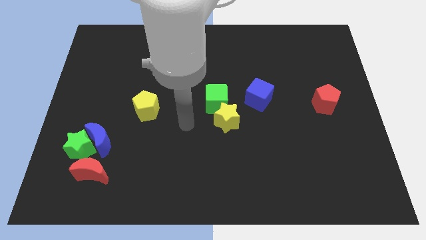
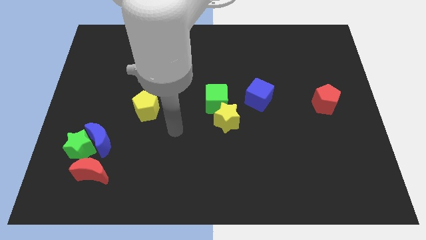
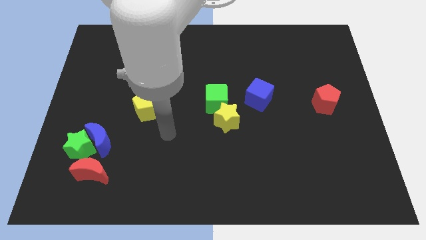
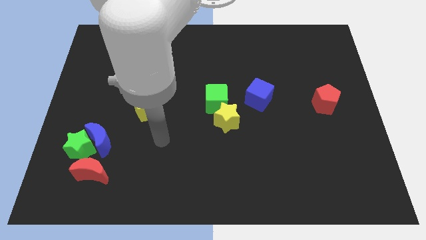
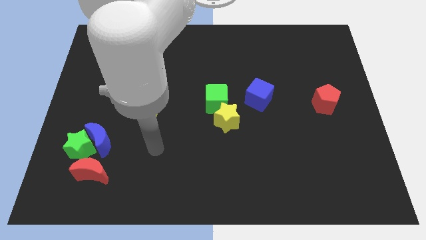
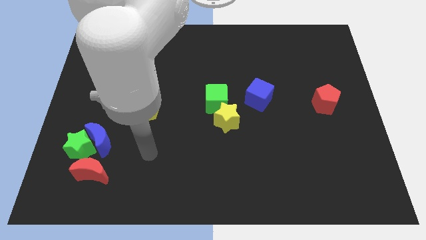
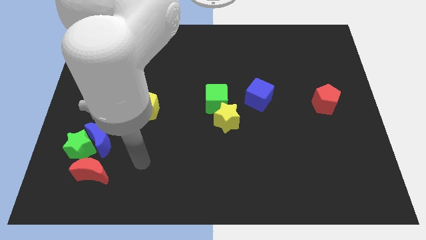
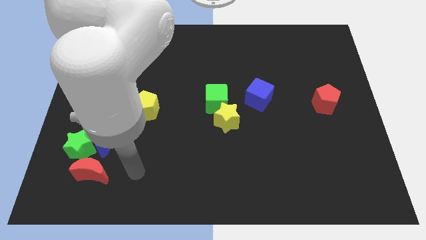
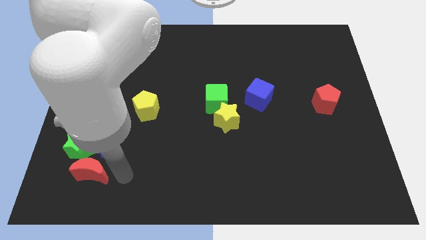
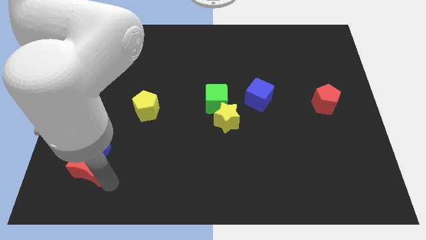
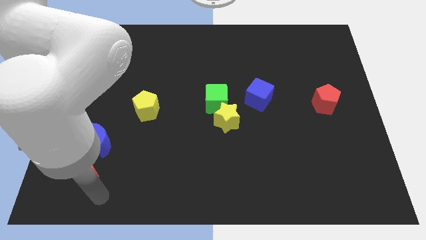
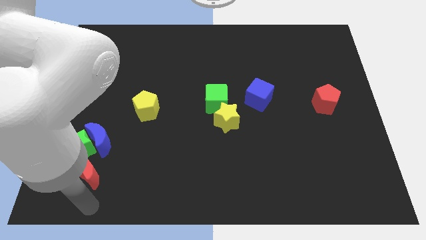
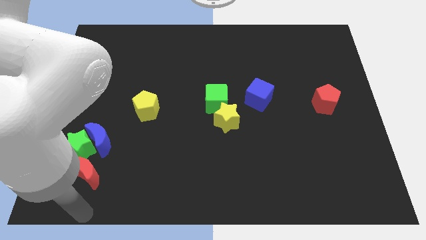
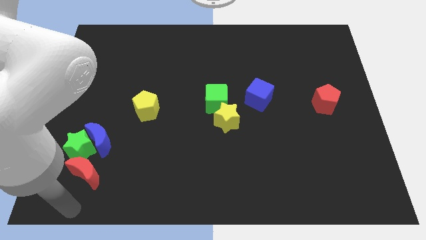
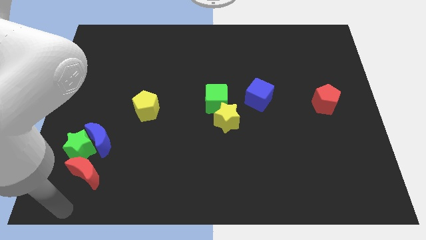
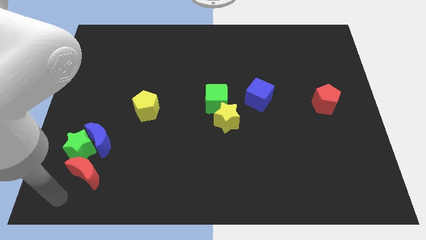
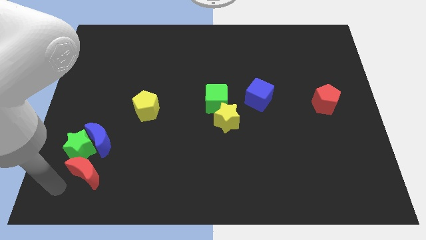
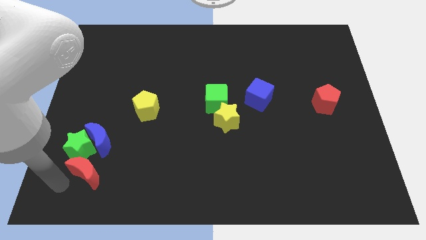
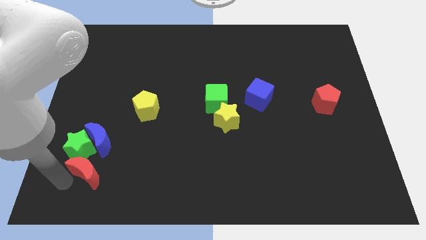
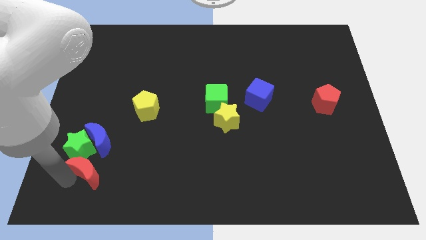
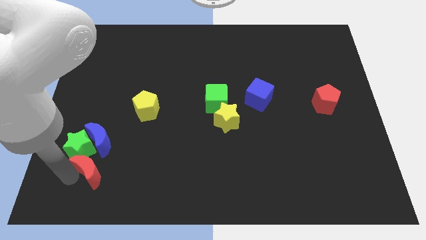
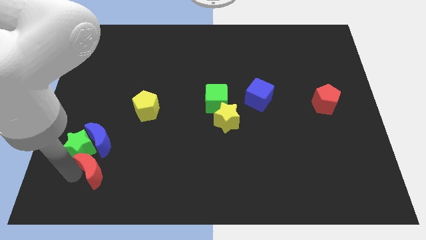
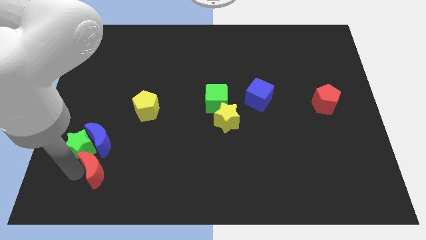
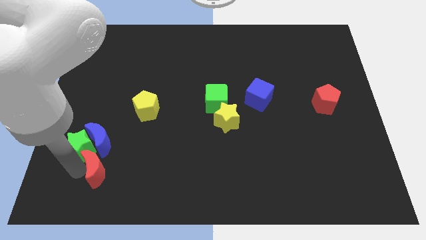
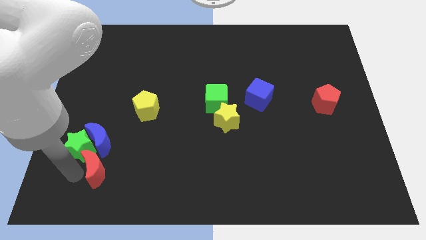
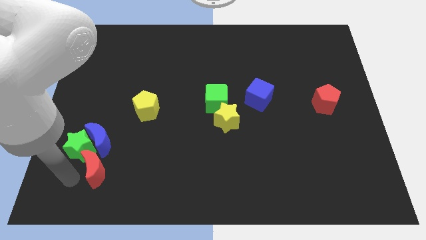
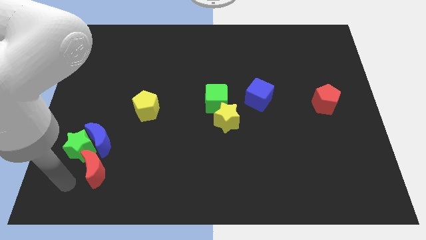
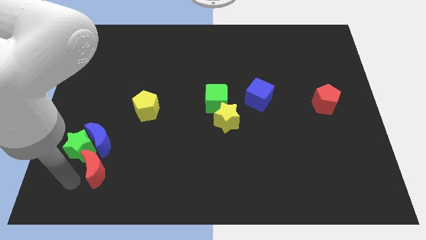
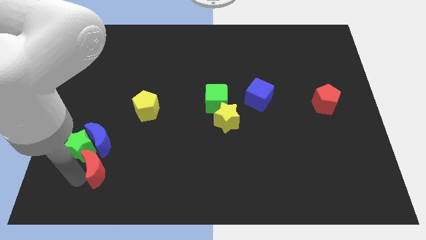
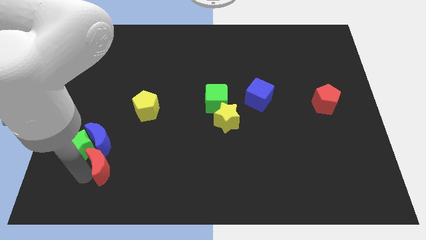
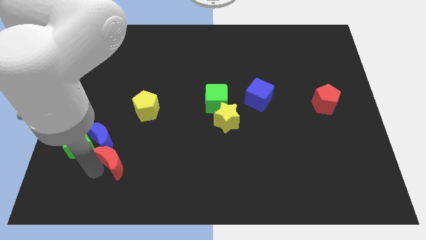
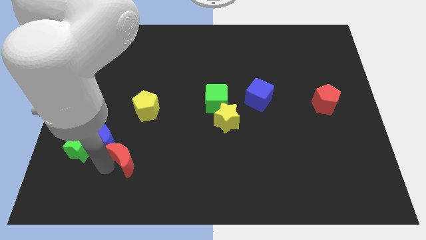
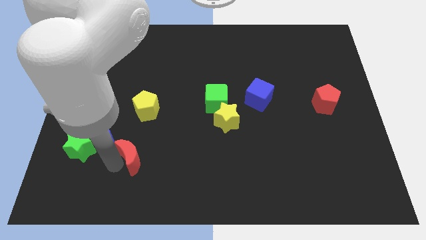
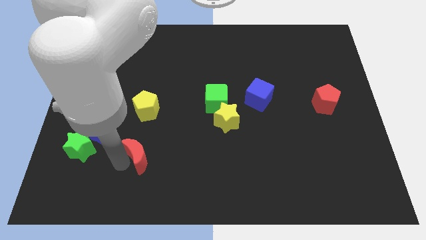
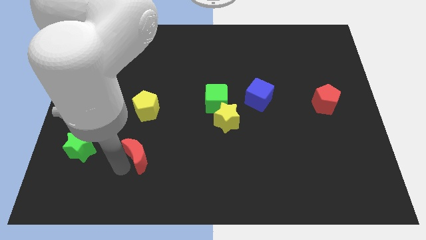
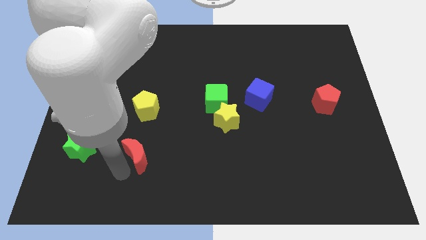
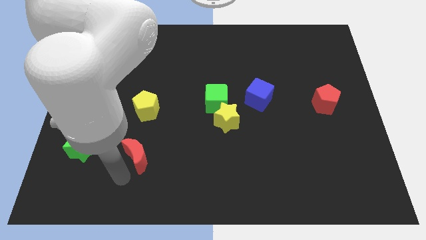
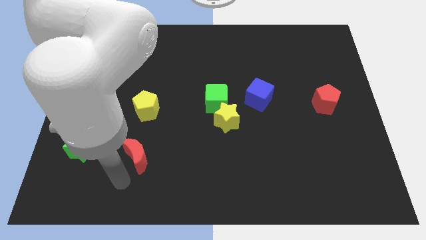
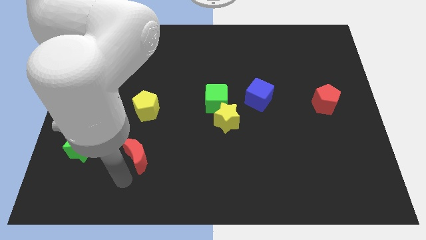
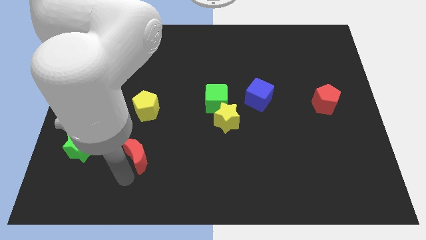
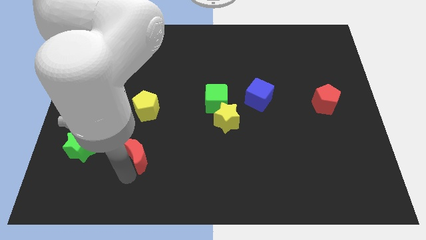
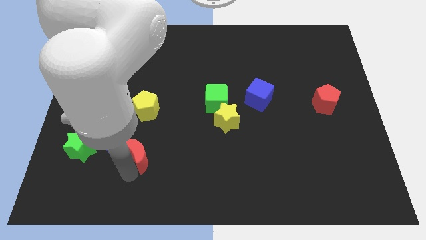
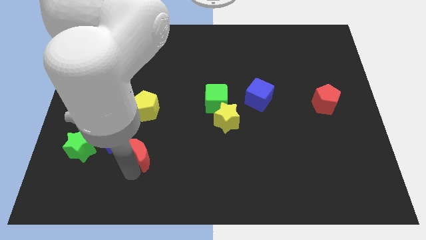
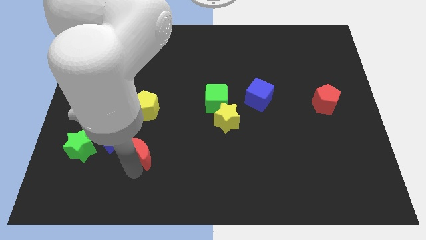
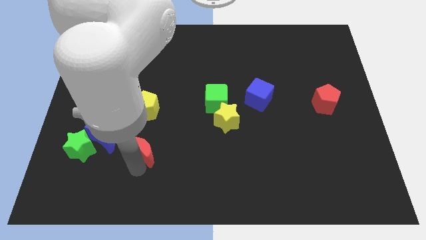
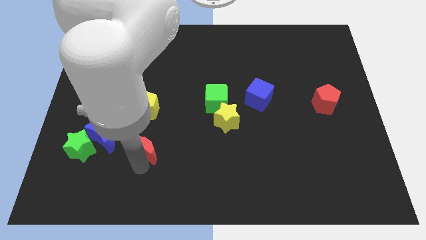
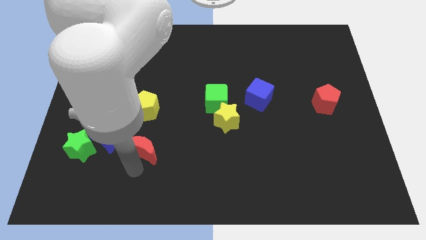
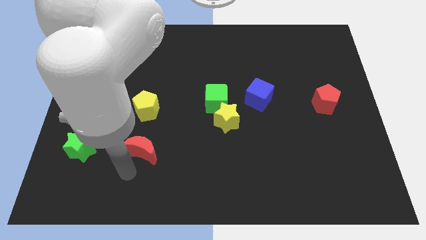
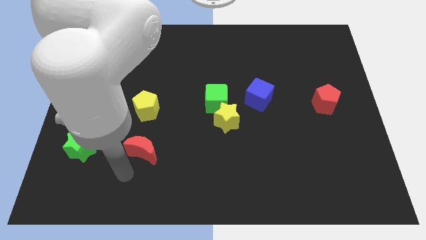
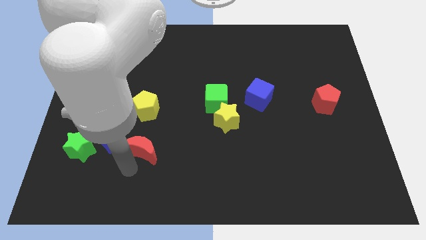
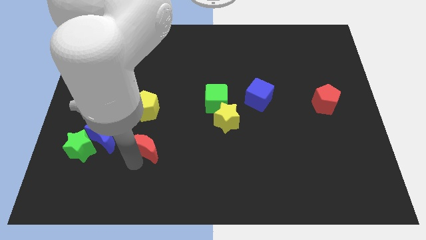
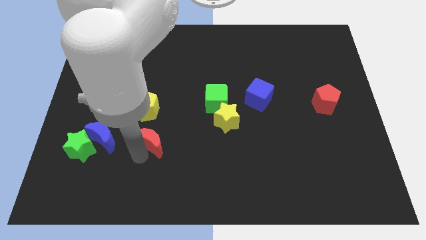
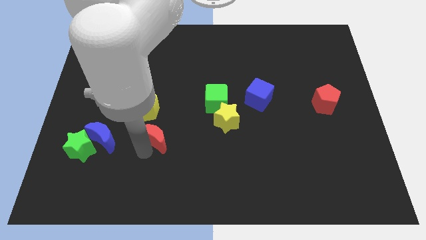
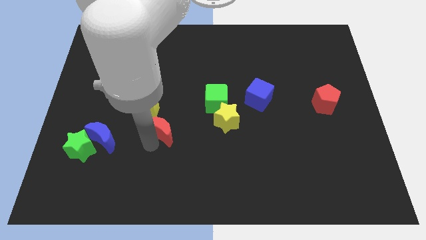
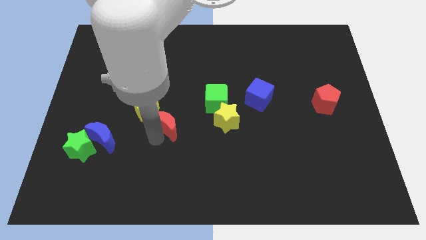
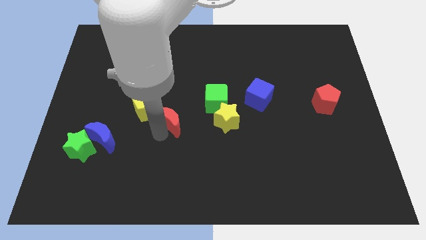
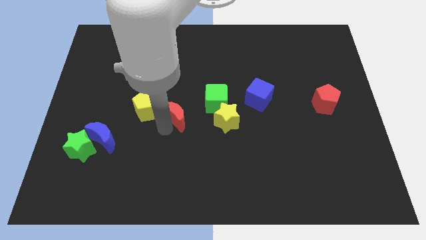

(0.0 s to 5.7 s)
slide the red moon up and right

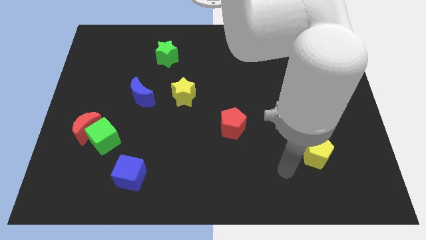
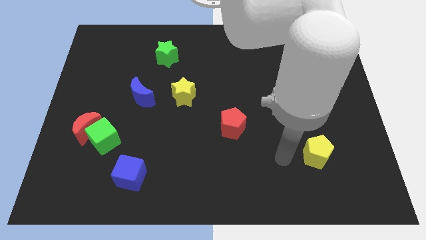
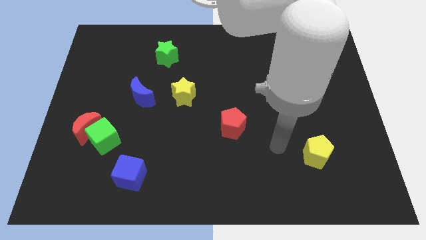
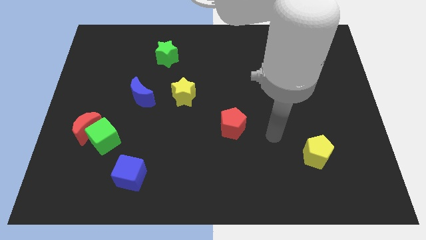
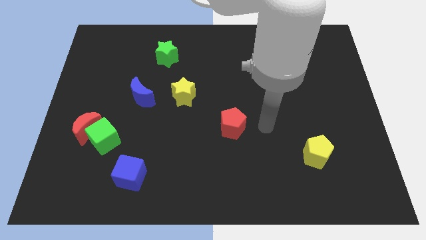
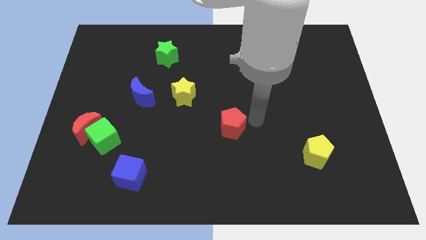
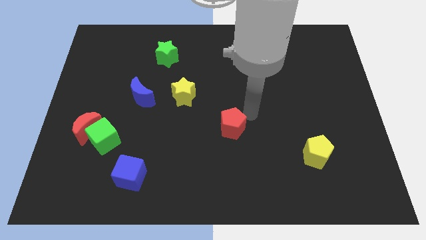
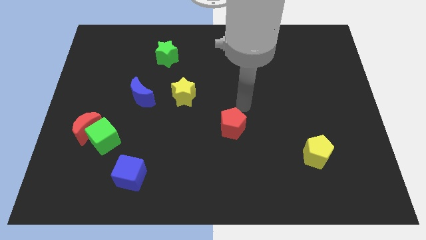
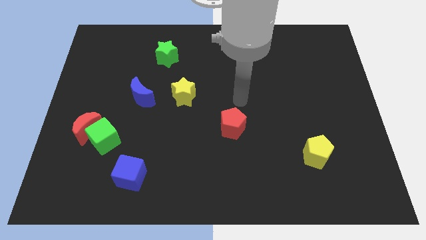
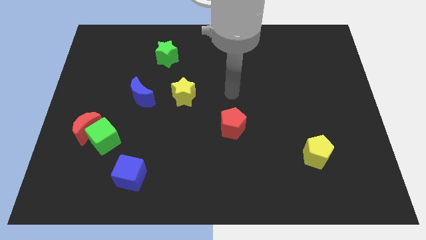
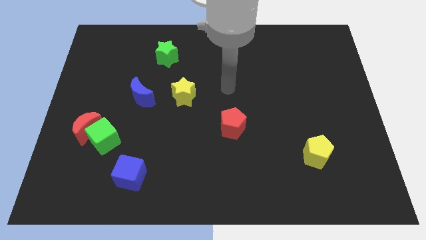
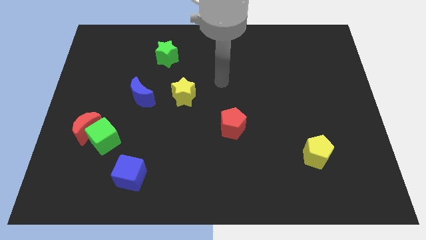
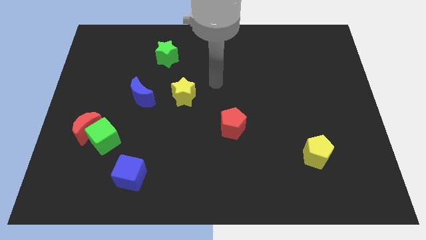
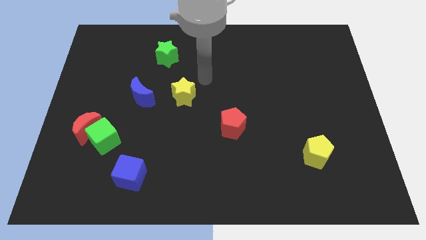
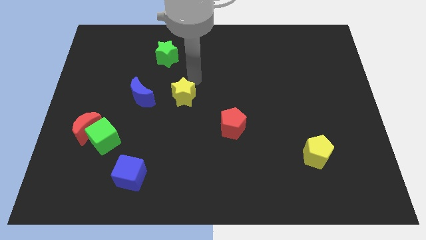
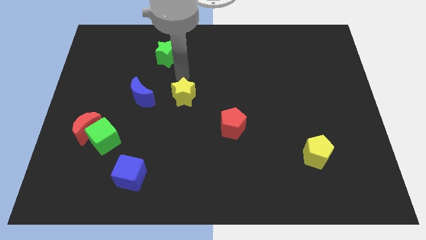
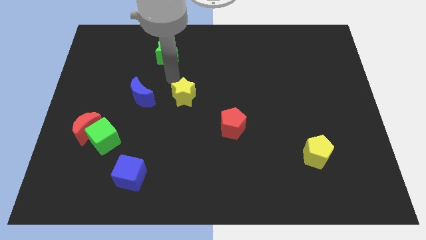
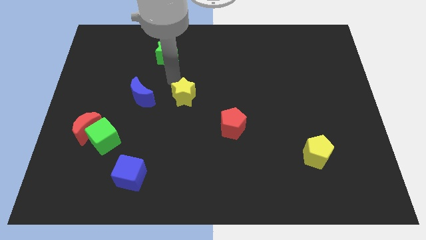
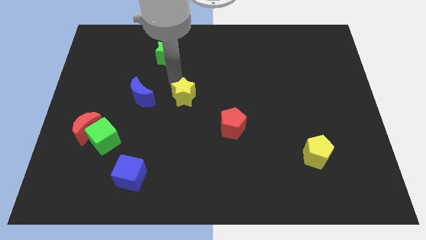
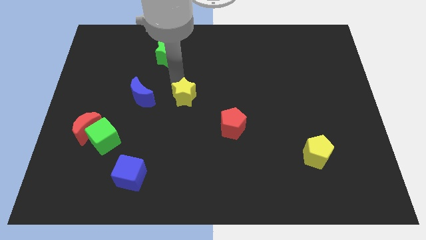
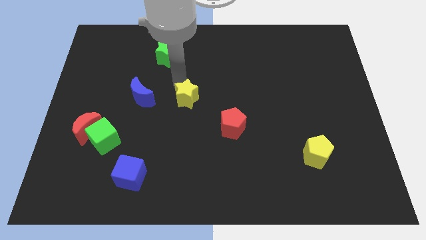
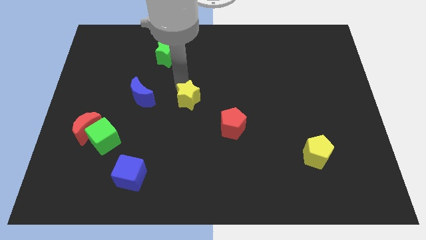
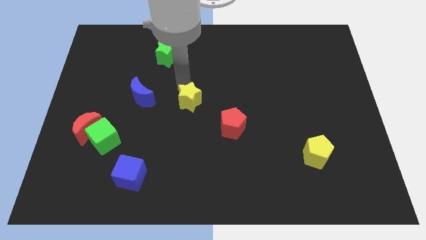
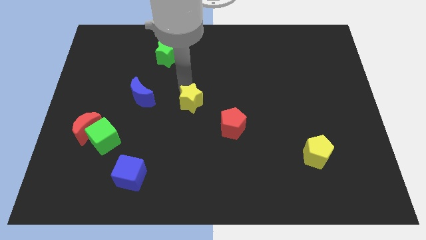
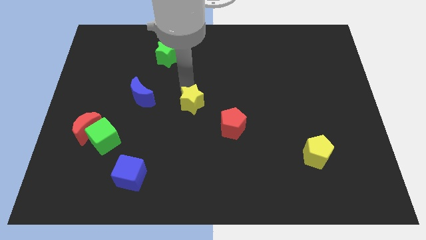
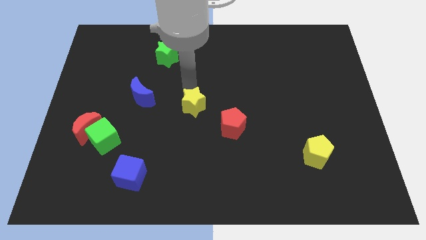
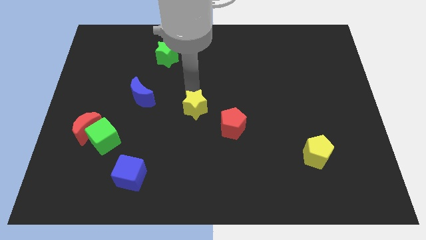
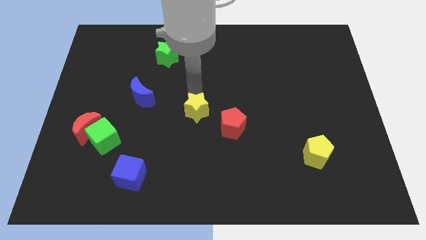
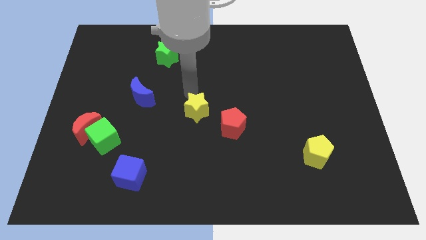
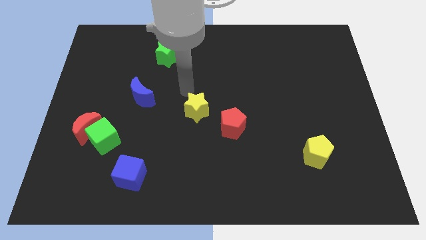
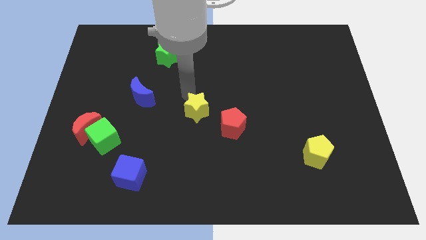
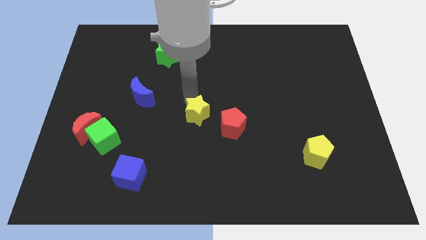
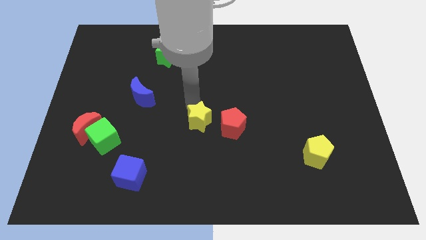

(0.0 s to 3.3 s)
slightly slide the yellow star down and to the right diagonally
